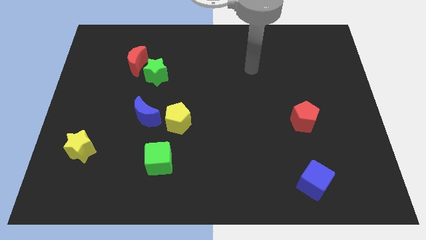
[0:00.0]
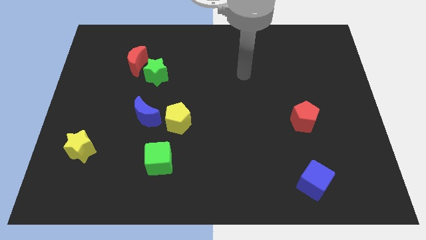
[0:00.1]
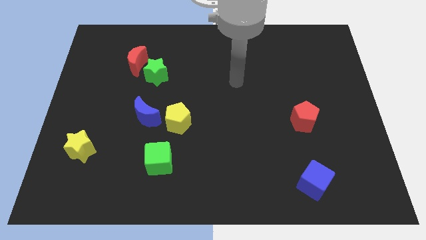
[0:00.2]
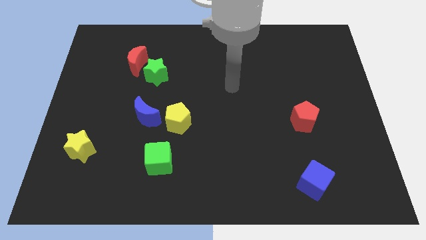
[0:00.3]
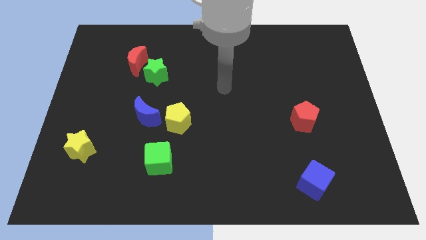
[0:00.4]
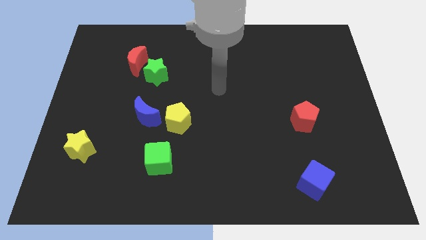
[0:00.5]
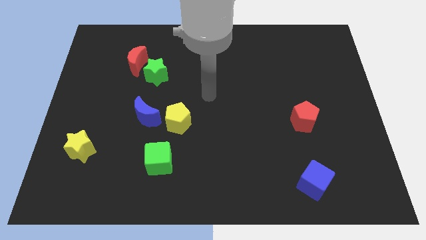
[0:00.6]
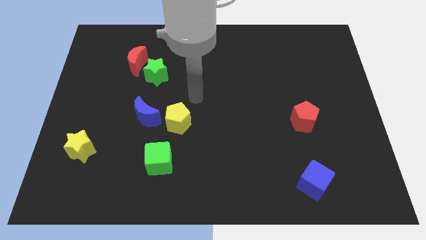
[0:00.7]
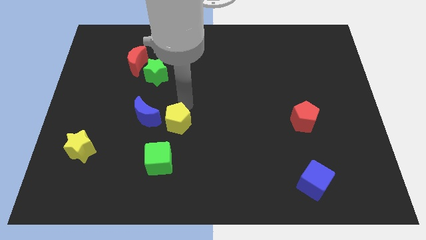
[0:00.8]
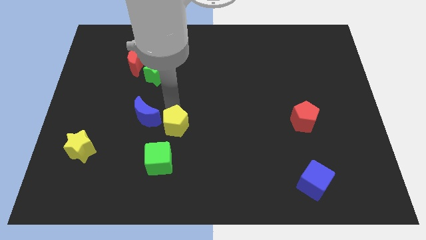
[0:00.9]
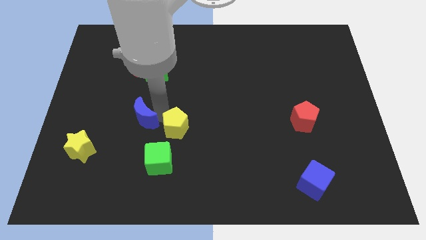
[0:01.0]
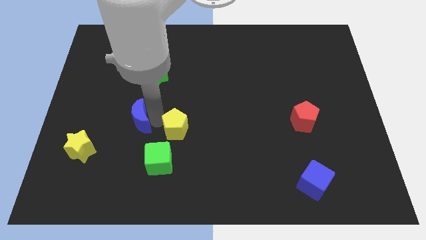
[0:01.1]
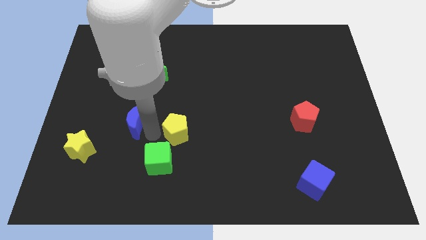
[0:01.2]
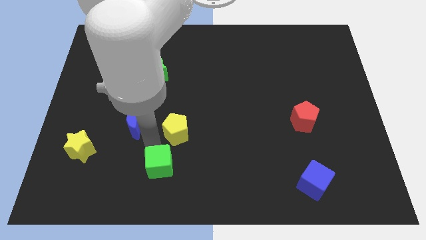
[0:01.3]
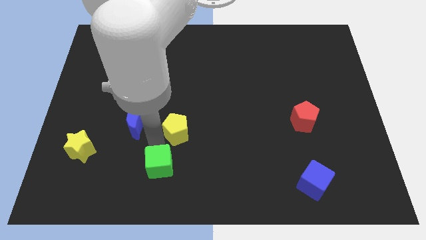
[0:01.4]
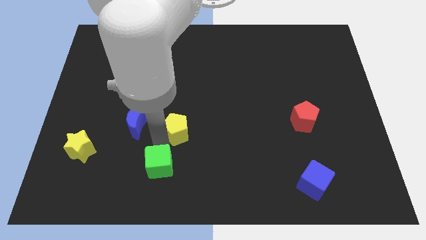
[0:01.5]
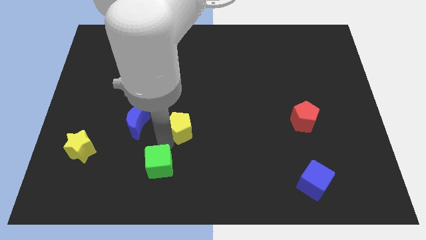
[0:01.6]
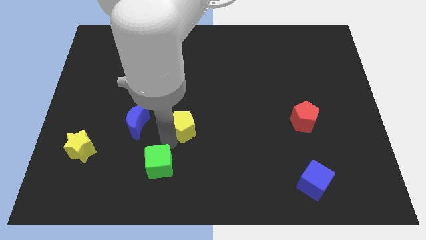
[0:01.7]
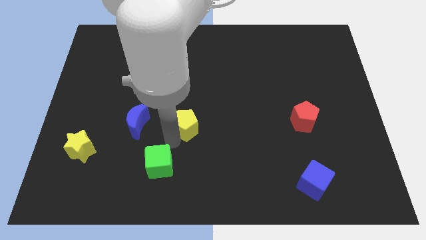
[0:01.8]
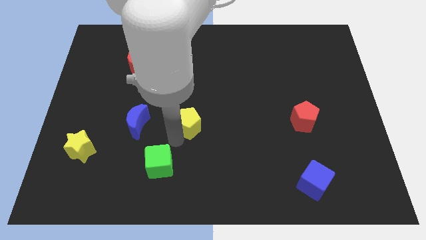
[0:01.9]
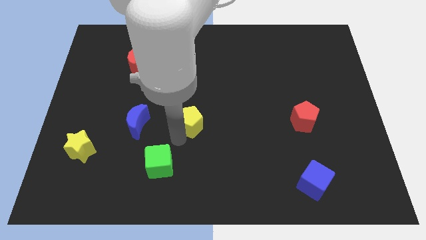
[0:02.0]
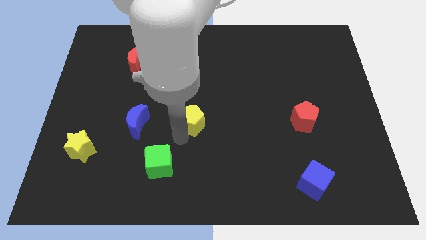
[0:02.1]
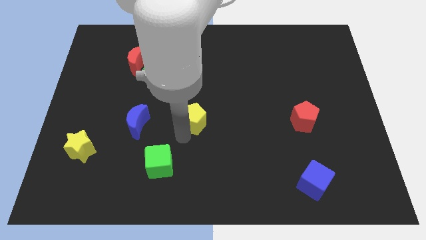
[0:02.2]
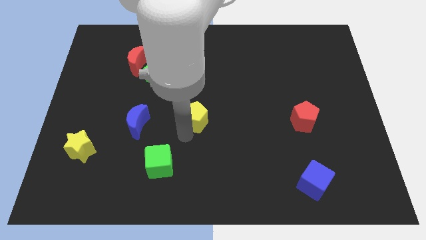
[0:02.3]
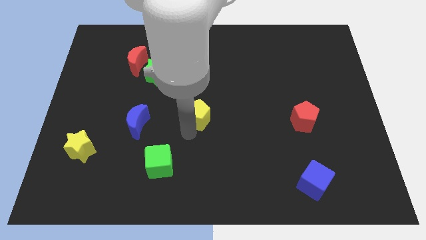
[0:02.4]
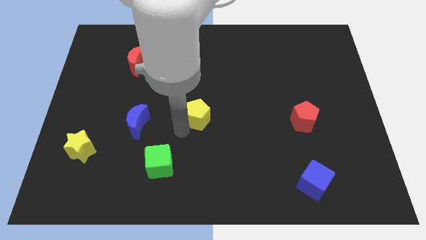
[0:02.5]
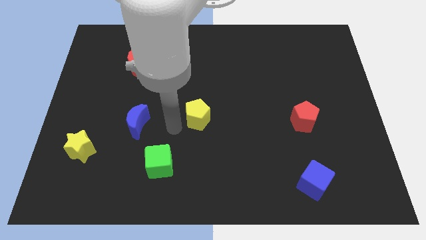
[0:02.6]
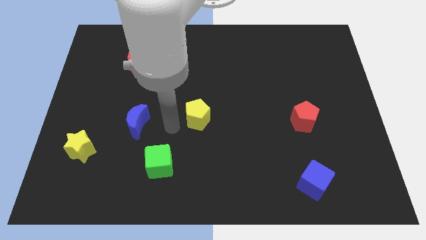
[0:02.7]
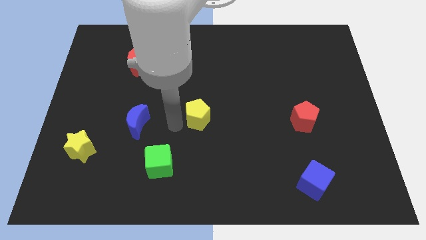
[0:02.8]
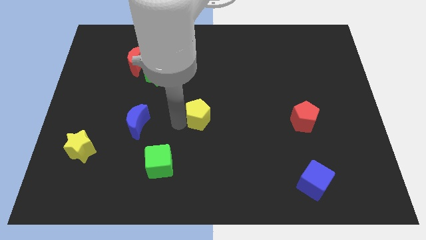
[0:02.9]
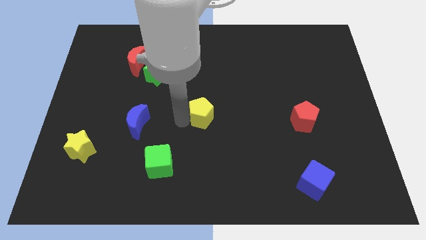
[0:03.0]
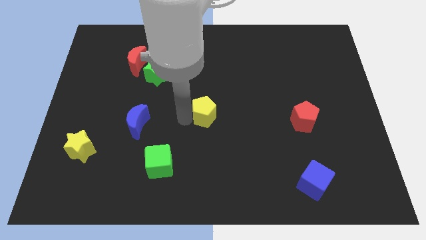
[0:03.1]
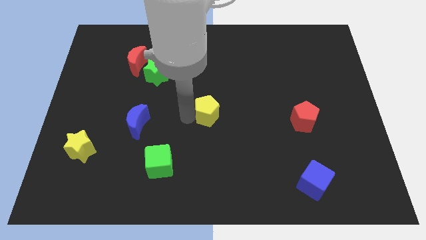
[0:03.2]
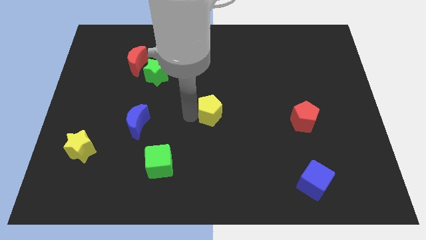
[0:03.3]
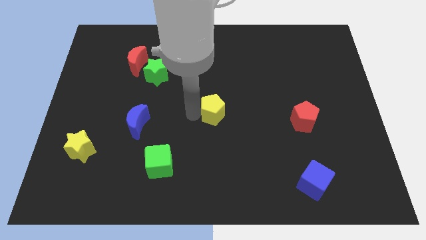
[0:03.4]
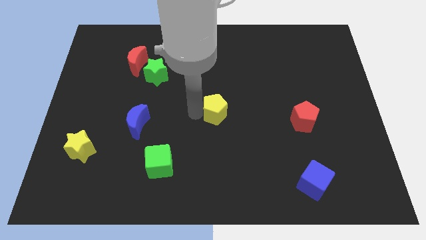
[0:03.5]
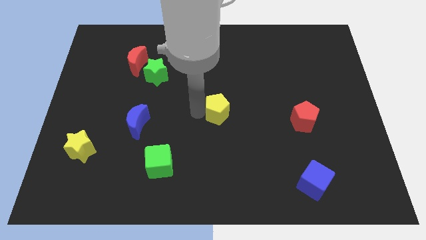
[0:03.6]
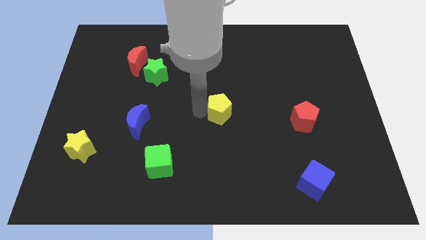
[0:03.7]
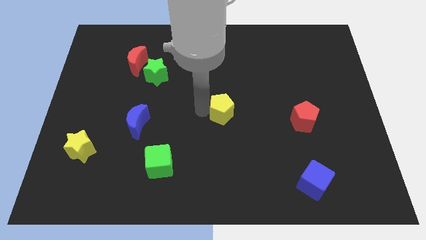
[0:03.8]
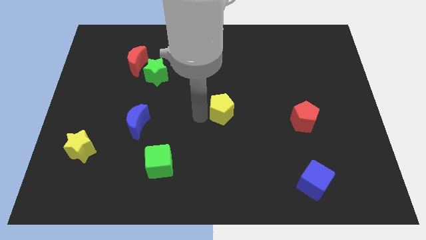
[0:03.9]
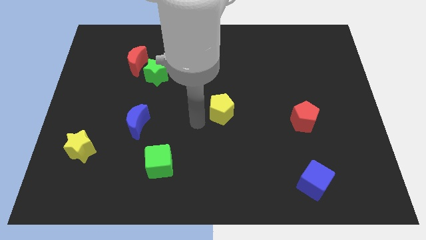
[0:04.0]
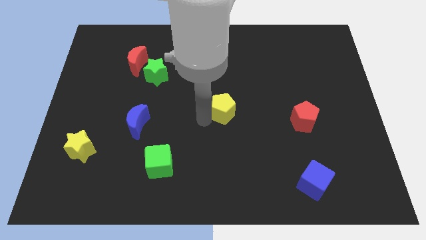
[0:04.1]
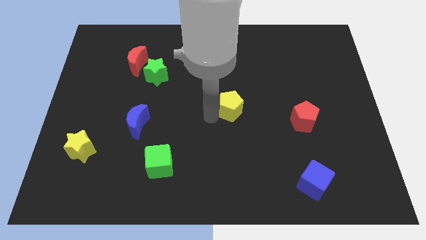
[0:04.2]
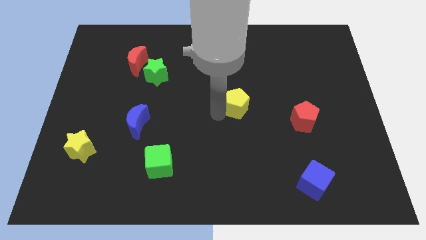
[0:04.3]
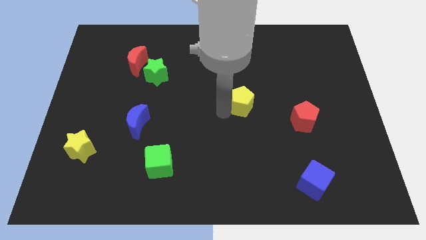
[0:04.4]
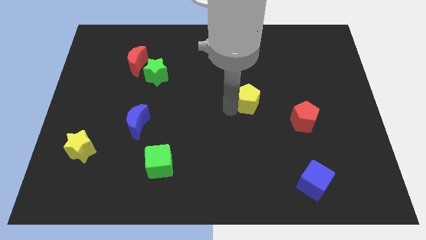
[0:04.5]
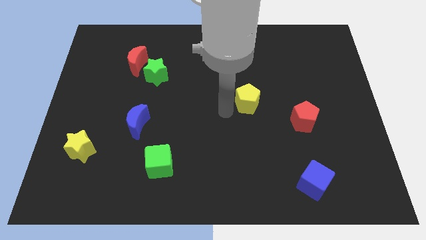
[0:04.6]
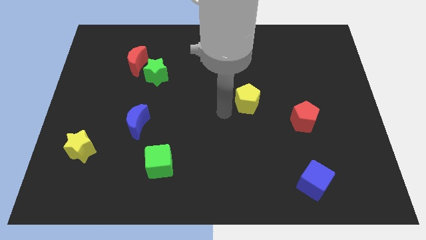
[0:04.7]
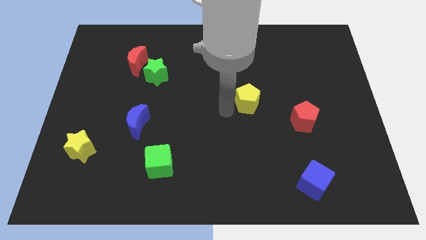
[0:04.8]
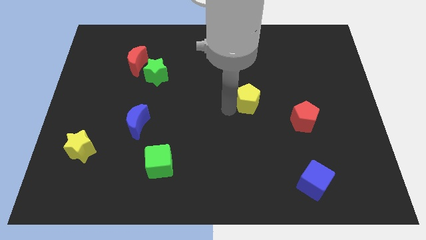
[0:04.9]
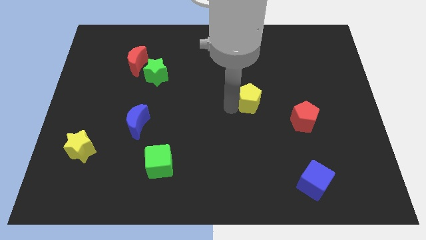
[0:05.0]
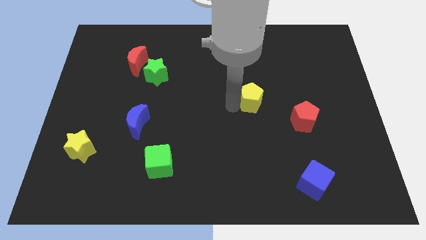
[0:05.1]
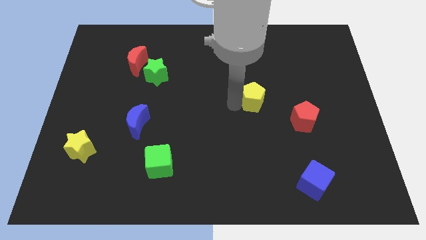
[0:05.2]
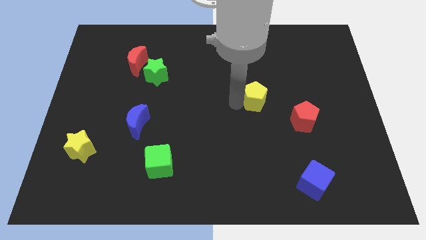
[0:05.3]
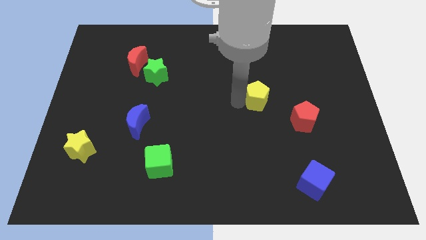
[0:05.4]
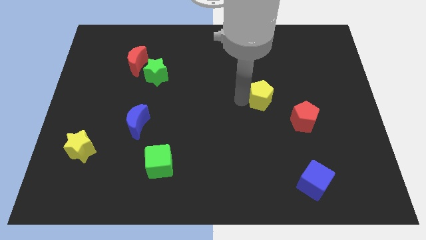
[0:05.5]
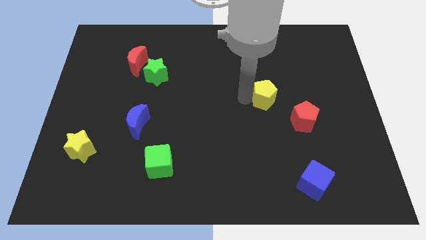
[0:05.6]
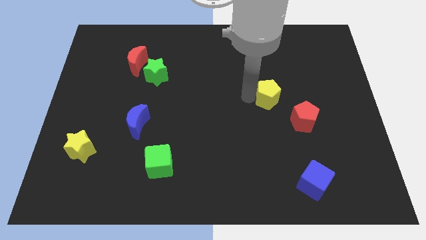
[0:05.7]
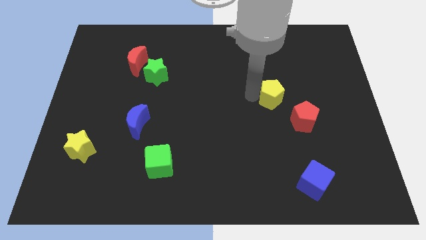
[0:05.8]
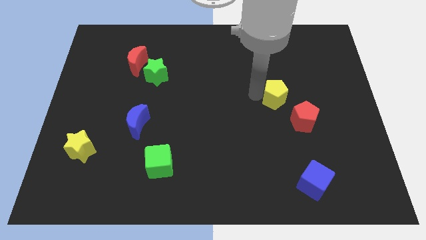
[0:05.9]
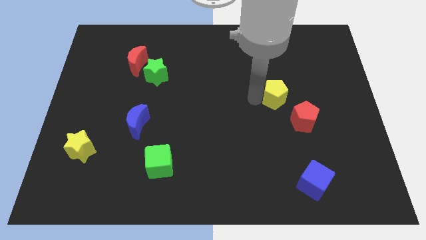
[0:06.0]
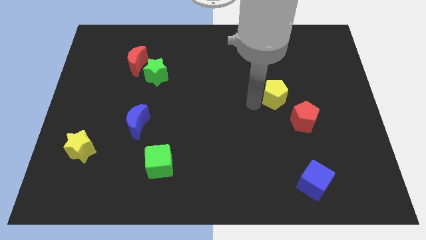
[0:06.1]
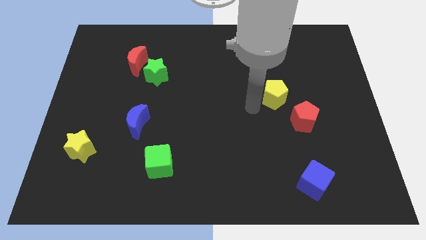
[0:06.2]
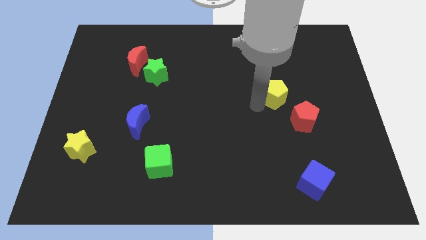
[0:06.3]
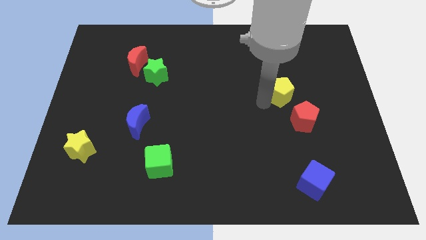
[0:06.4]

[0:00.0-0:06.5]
slide the yellow pentagon to the top side of the red pentagon
